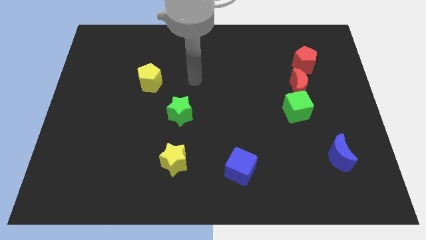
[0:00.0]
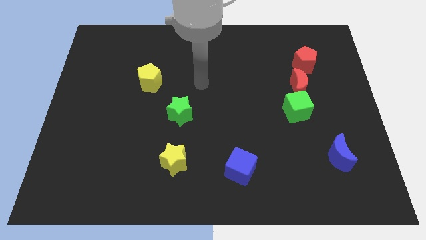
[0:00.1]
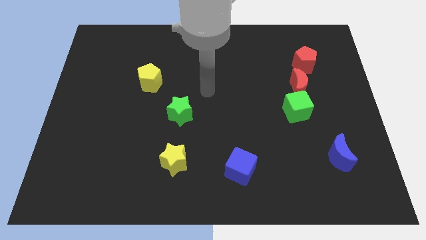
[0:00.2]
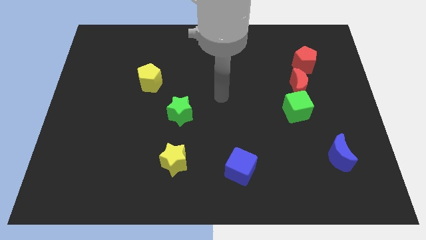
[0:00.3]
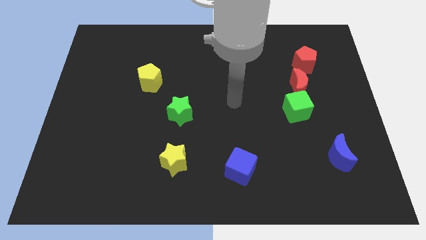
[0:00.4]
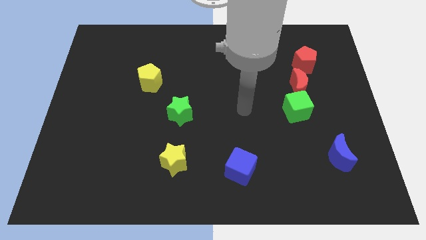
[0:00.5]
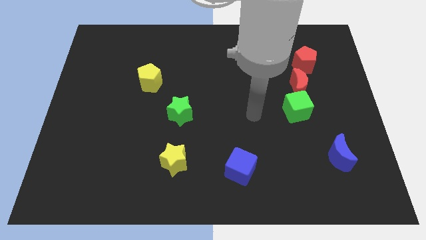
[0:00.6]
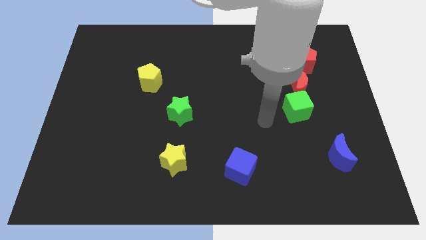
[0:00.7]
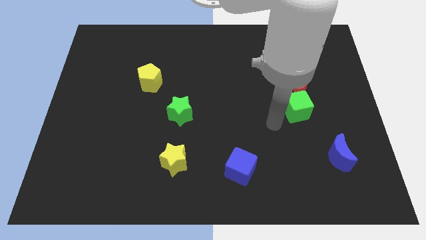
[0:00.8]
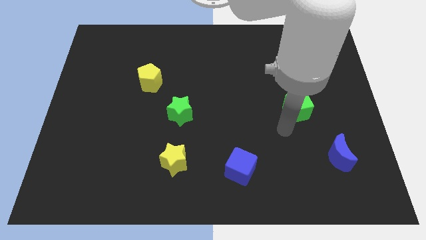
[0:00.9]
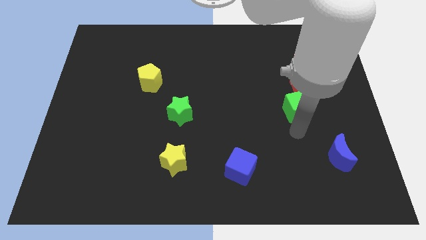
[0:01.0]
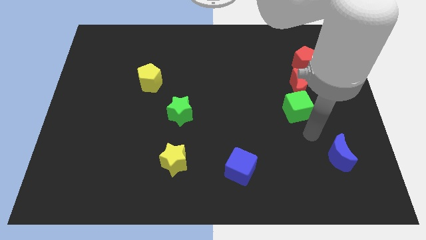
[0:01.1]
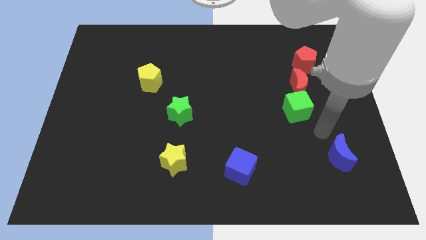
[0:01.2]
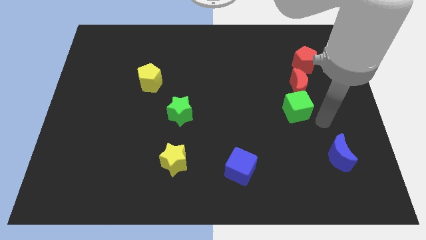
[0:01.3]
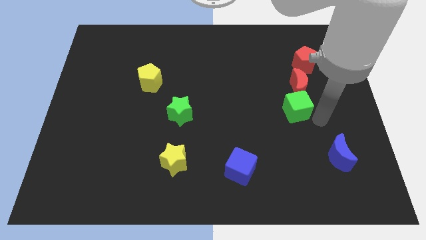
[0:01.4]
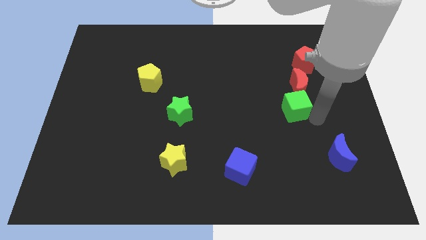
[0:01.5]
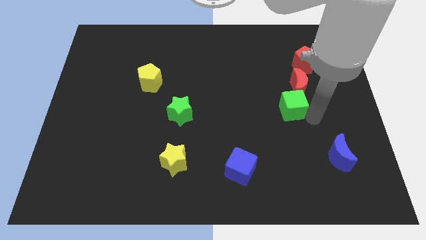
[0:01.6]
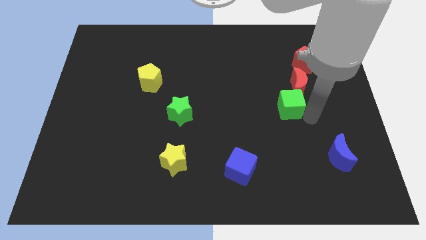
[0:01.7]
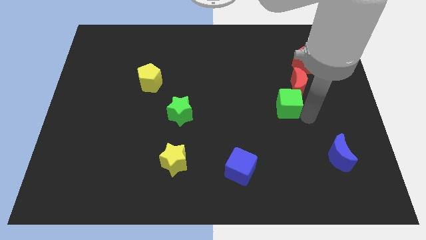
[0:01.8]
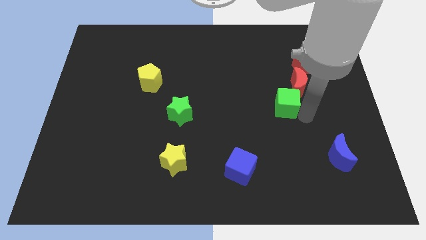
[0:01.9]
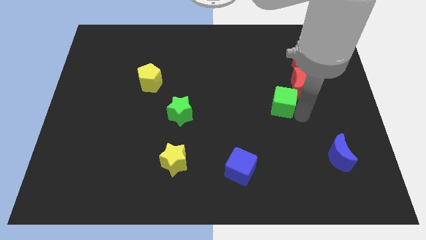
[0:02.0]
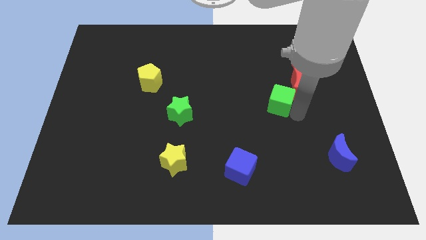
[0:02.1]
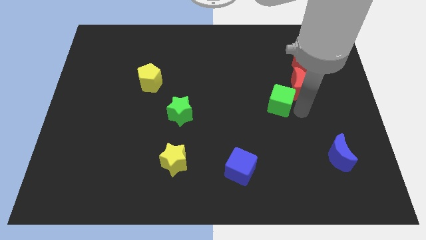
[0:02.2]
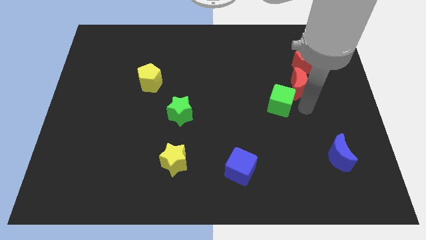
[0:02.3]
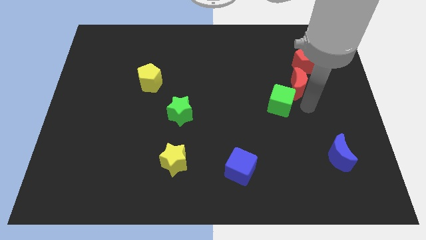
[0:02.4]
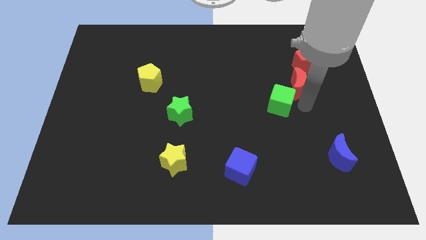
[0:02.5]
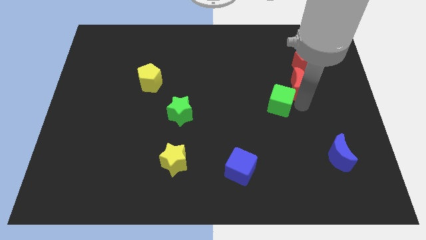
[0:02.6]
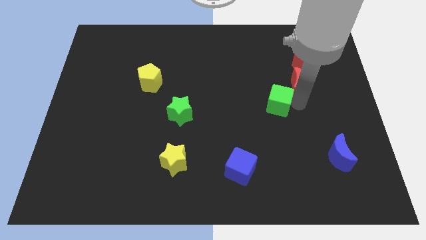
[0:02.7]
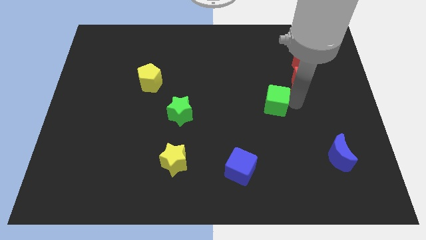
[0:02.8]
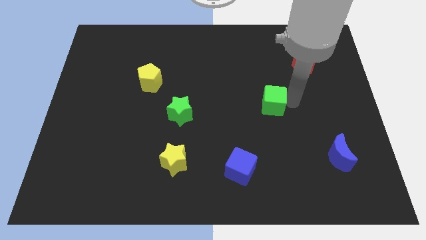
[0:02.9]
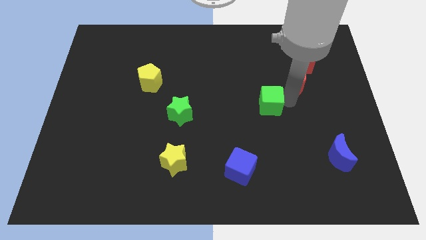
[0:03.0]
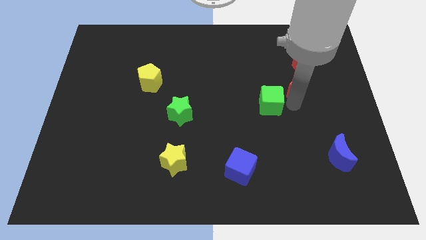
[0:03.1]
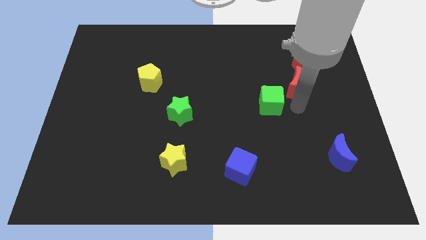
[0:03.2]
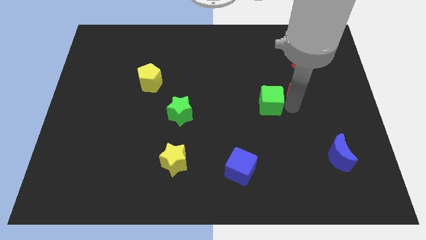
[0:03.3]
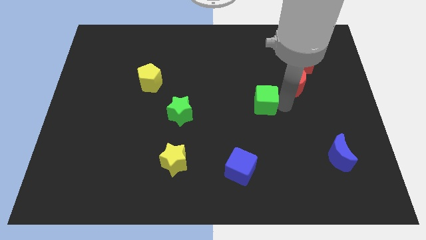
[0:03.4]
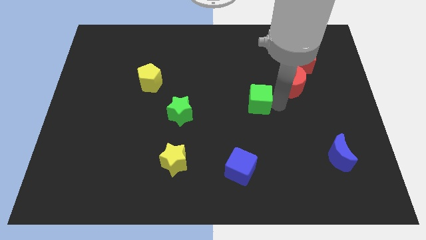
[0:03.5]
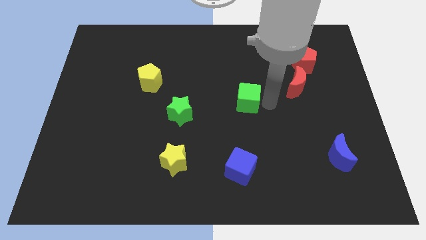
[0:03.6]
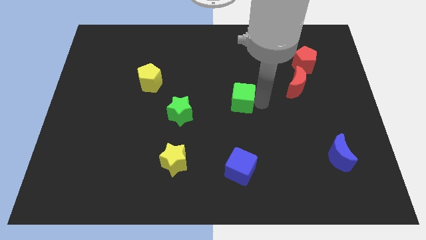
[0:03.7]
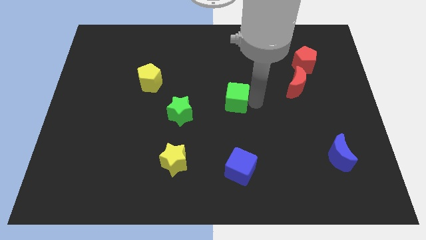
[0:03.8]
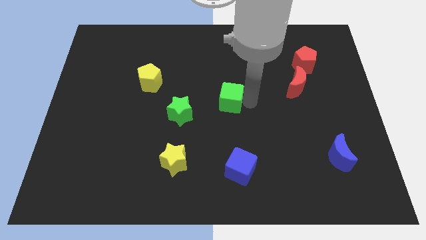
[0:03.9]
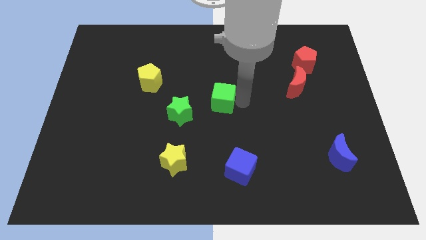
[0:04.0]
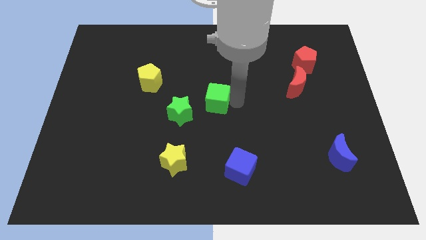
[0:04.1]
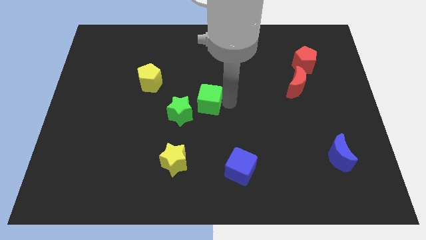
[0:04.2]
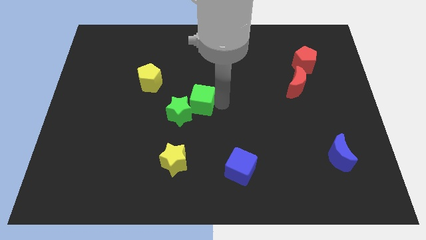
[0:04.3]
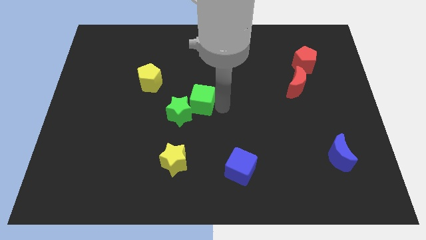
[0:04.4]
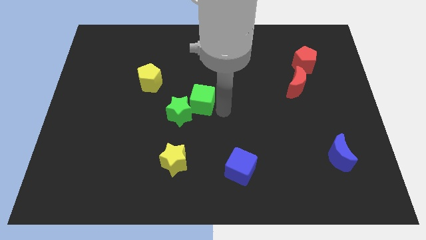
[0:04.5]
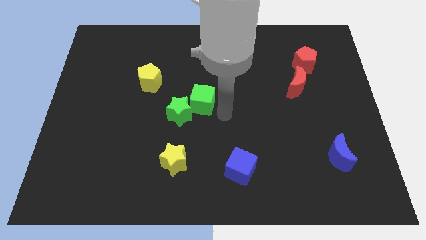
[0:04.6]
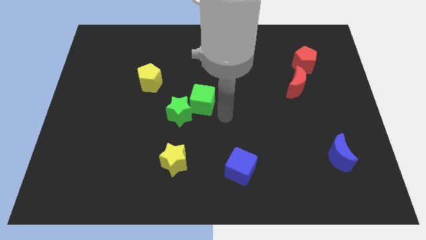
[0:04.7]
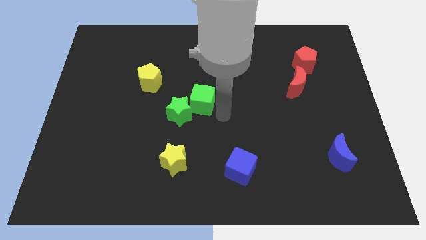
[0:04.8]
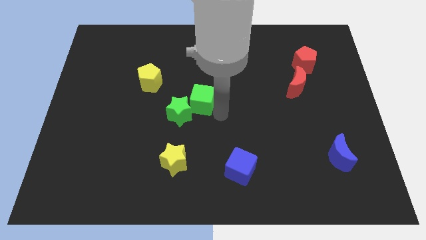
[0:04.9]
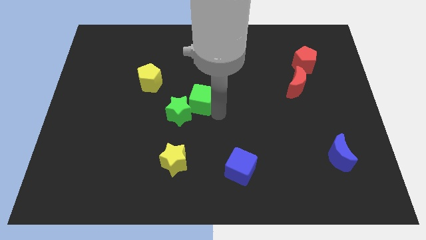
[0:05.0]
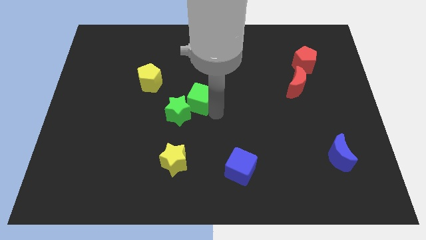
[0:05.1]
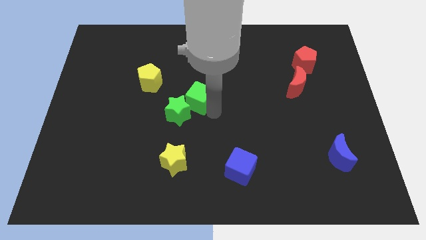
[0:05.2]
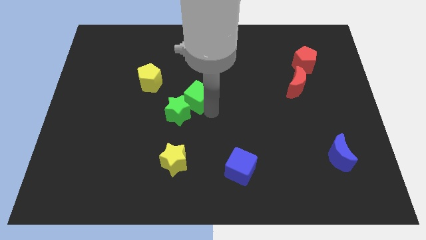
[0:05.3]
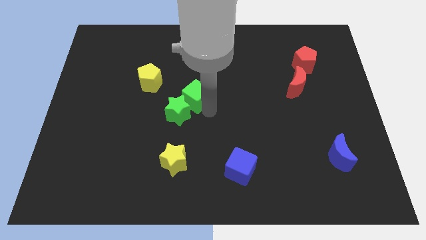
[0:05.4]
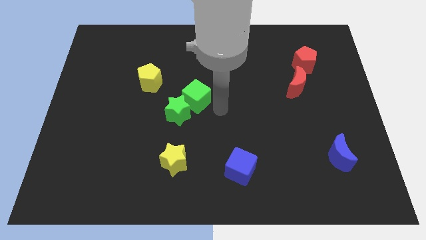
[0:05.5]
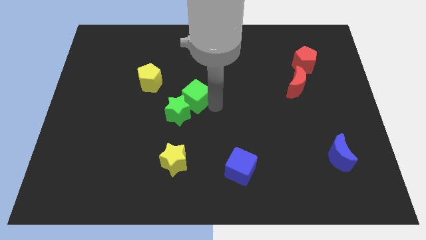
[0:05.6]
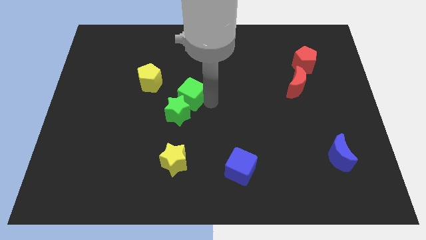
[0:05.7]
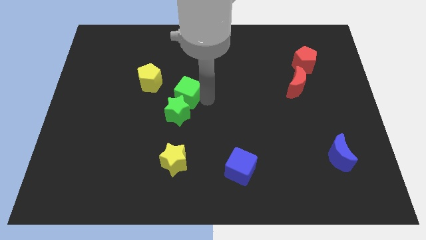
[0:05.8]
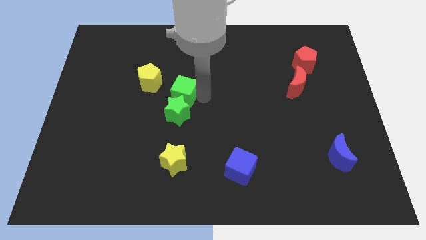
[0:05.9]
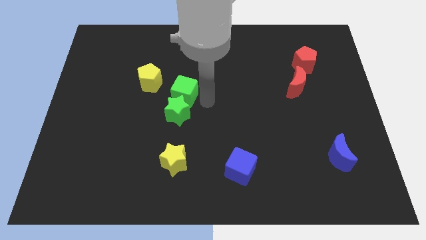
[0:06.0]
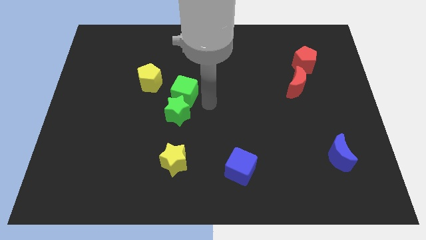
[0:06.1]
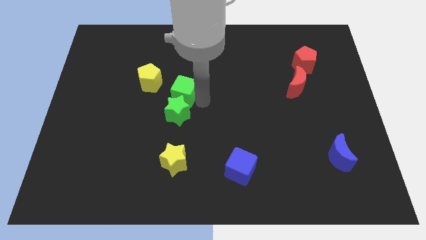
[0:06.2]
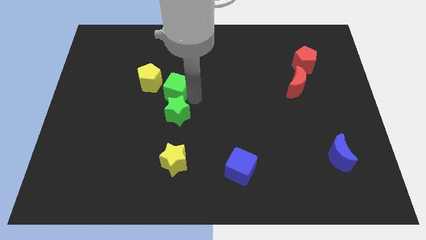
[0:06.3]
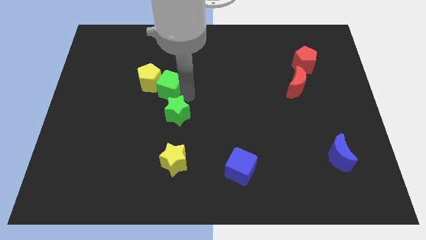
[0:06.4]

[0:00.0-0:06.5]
slide the green cube to the yellow pentagon

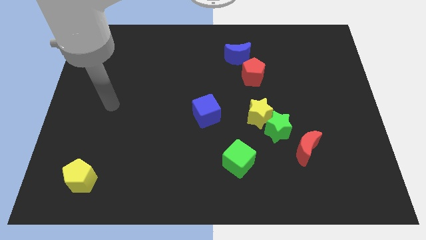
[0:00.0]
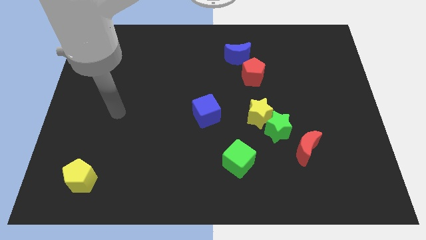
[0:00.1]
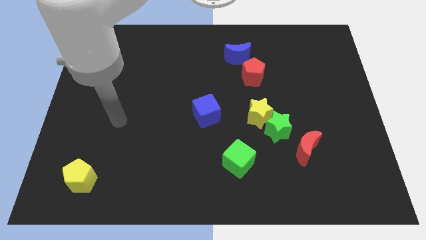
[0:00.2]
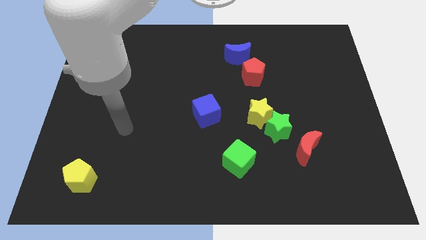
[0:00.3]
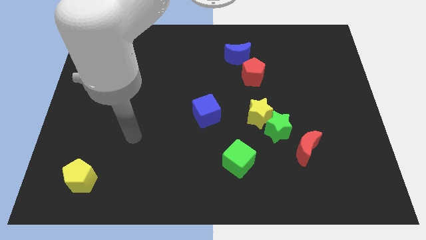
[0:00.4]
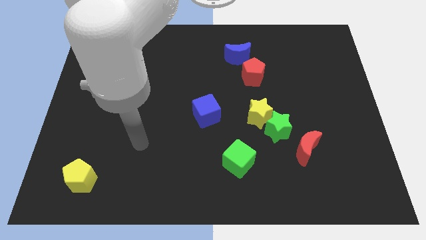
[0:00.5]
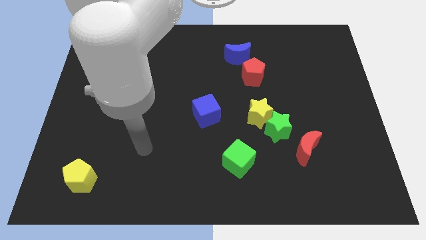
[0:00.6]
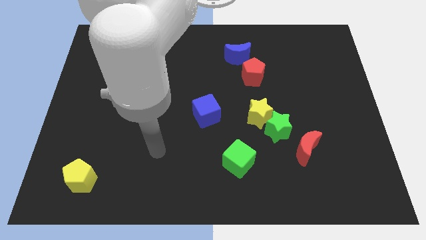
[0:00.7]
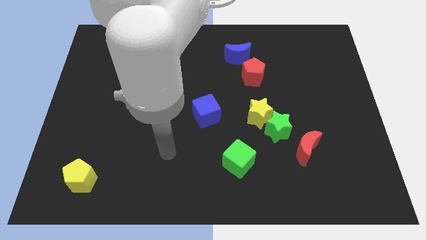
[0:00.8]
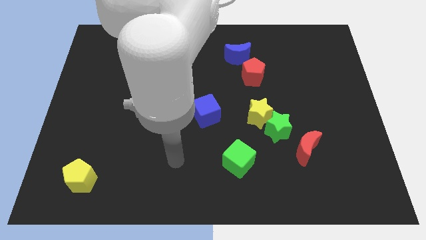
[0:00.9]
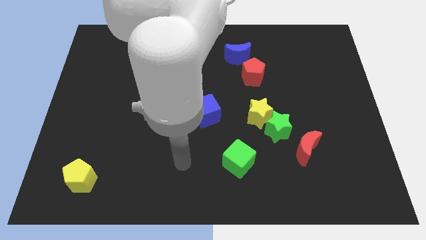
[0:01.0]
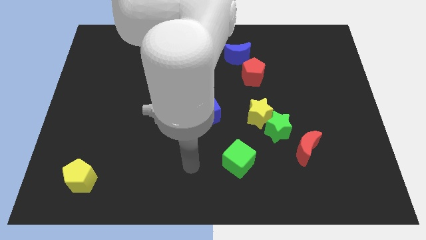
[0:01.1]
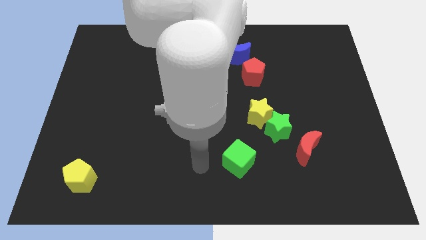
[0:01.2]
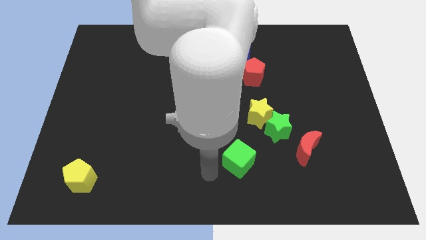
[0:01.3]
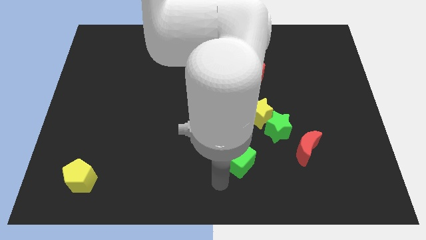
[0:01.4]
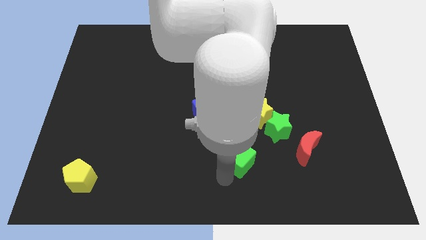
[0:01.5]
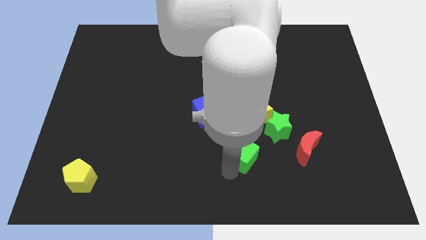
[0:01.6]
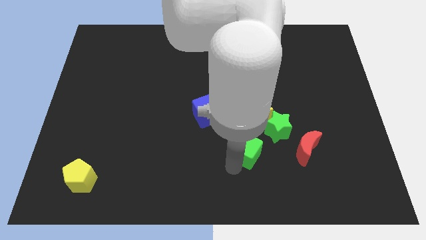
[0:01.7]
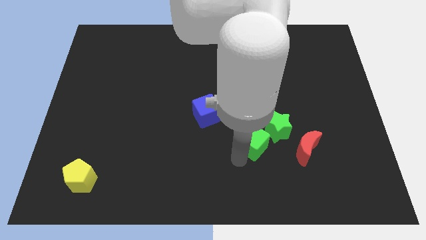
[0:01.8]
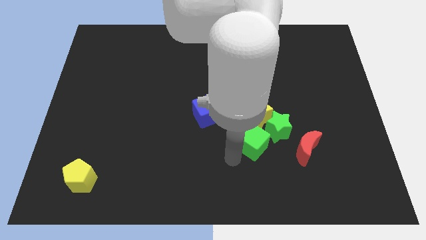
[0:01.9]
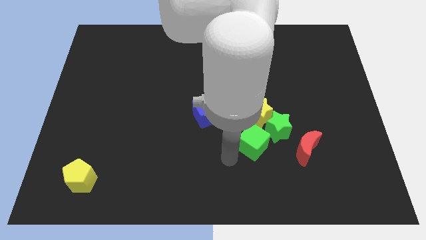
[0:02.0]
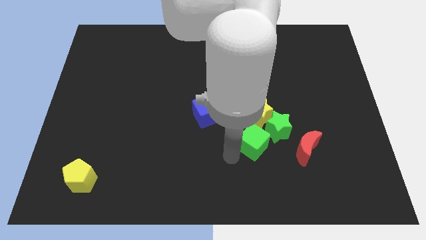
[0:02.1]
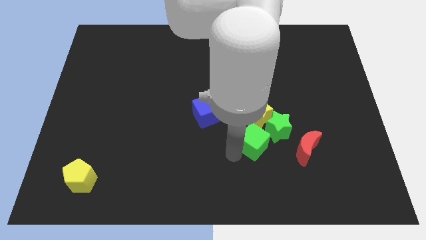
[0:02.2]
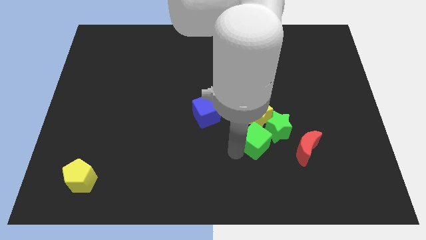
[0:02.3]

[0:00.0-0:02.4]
slide the green cube next to the green star
